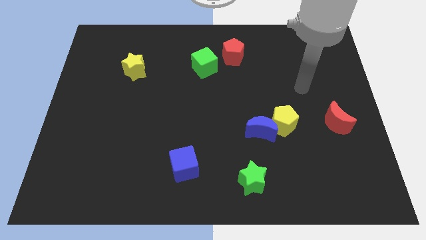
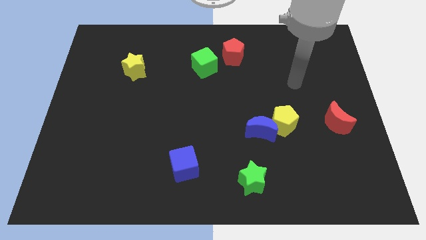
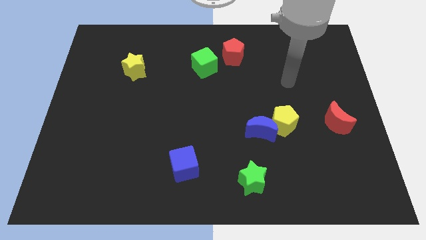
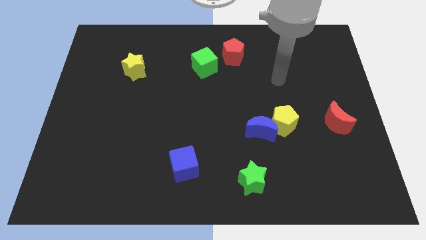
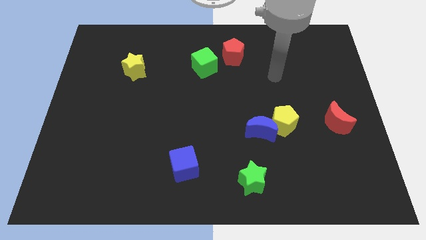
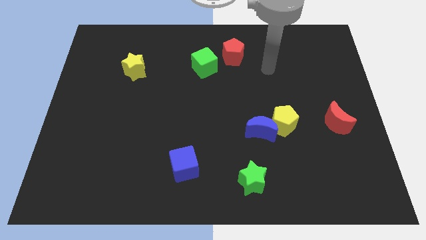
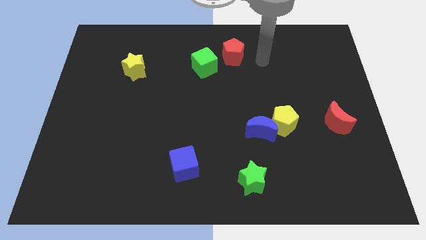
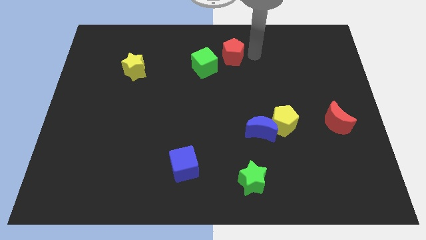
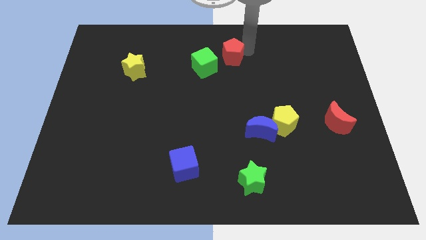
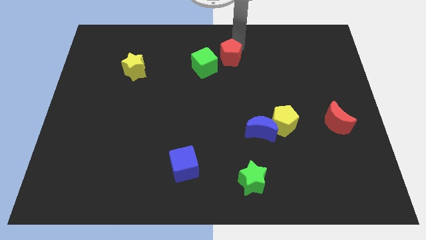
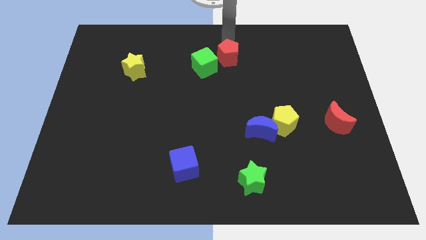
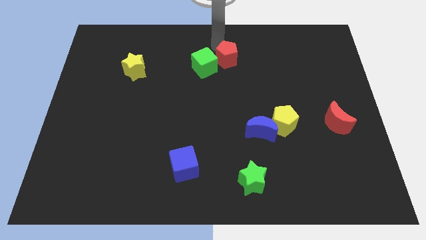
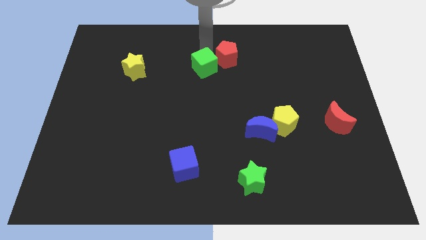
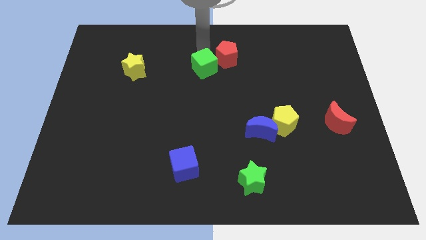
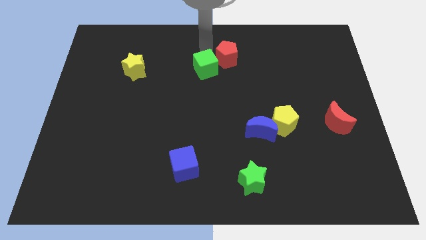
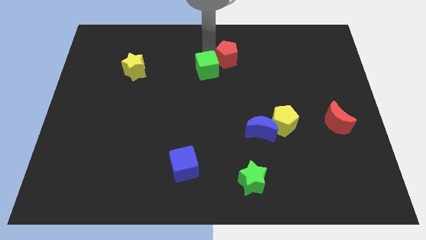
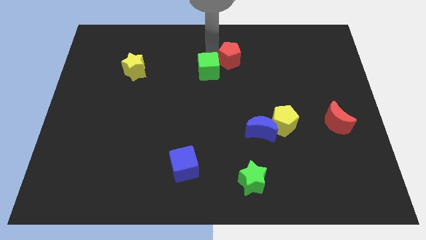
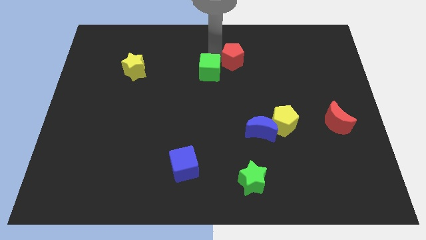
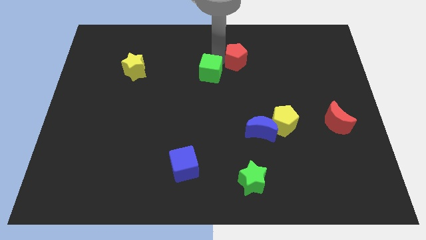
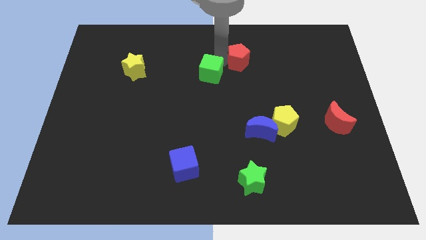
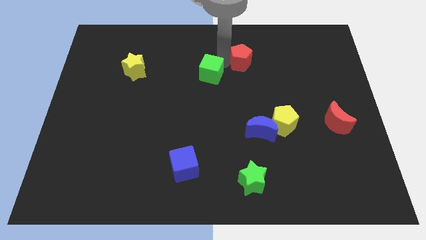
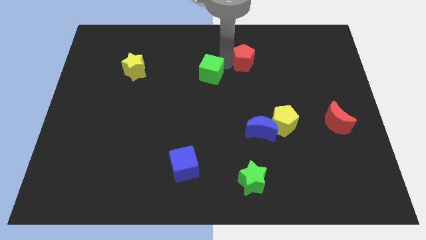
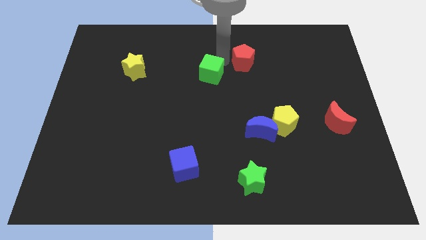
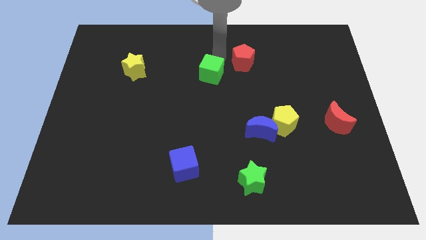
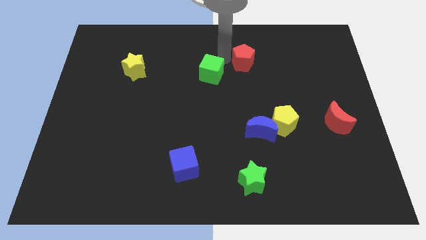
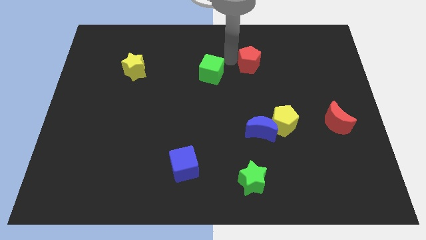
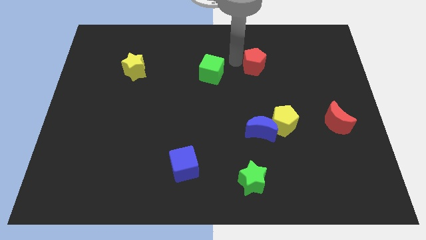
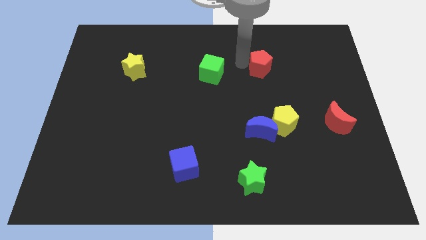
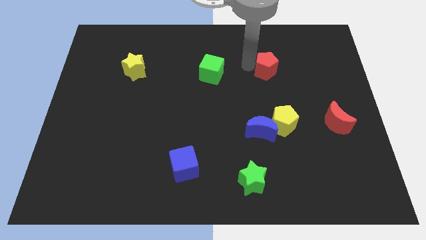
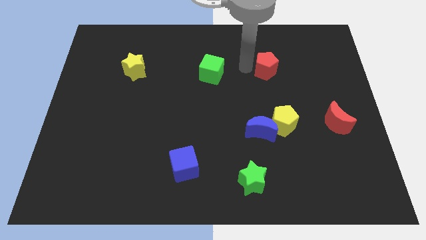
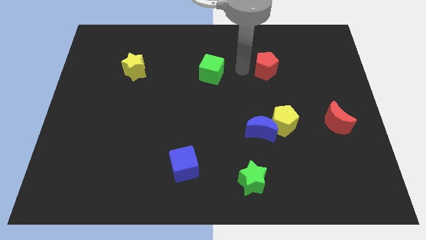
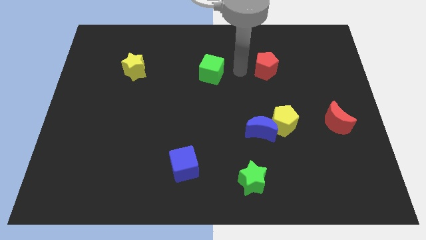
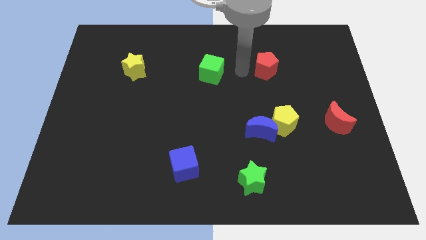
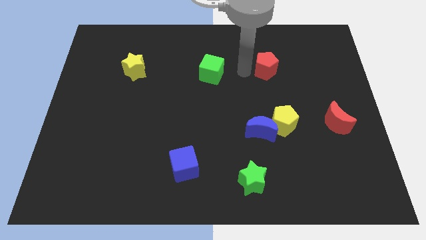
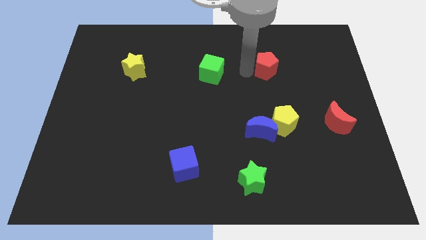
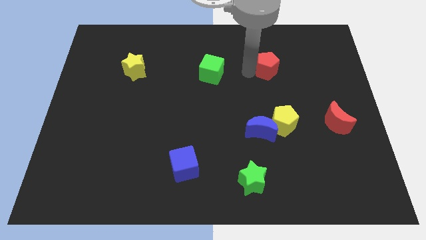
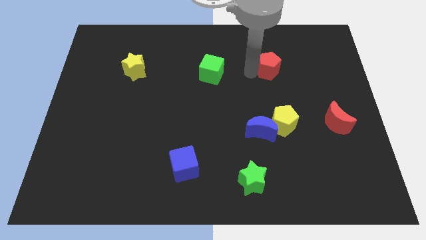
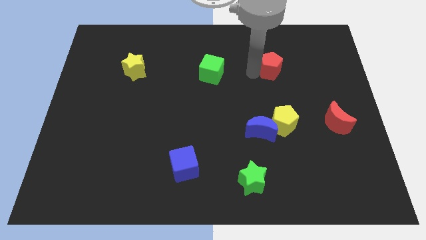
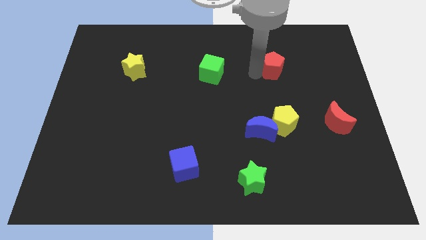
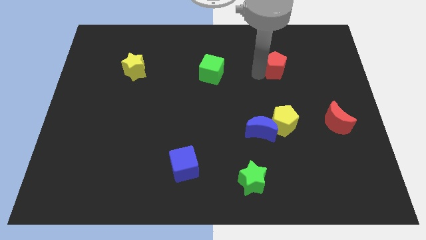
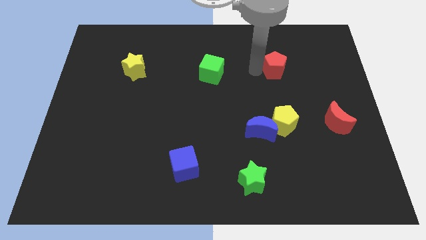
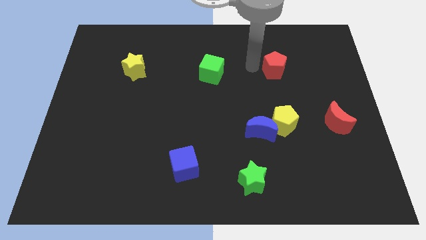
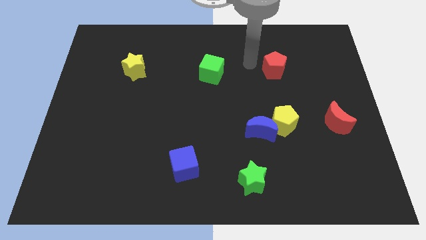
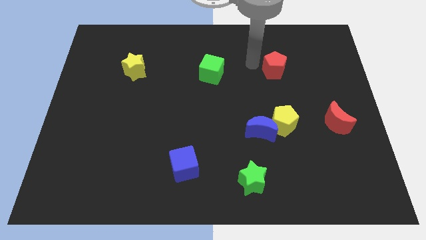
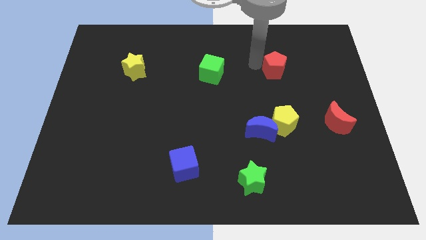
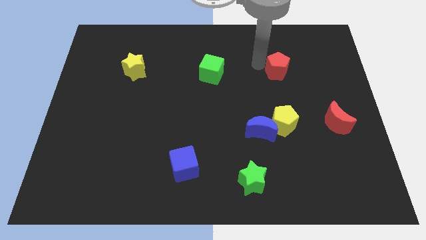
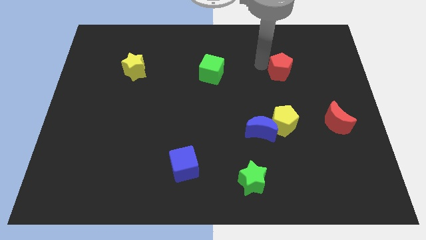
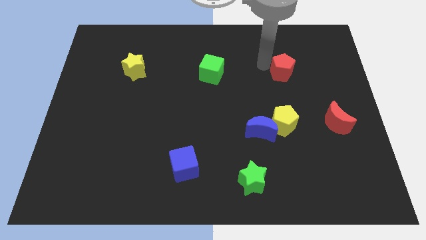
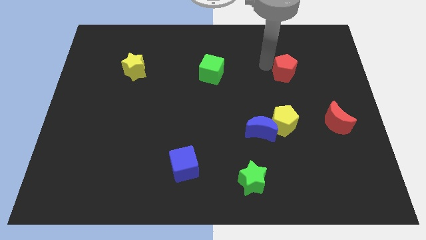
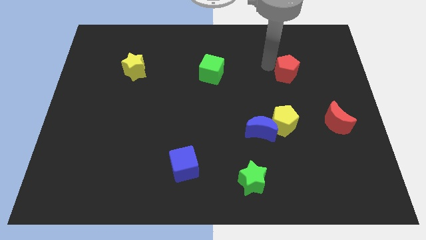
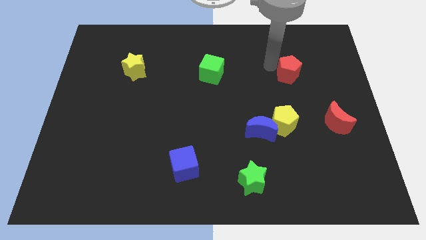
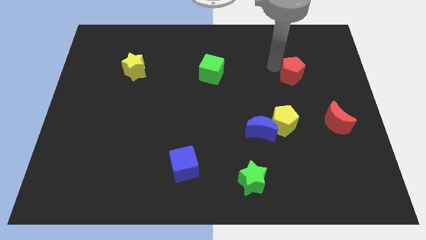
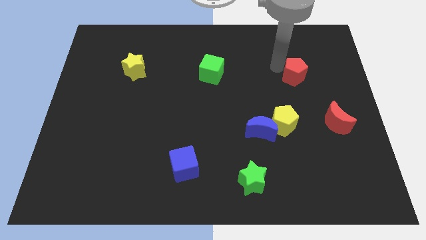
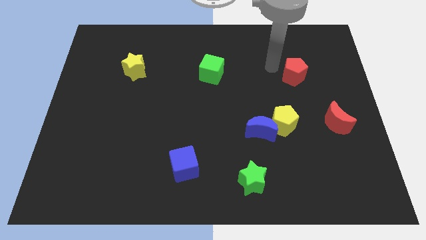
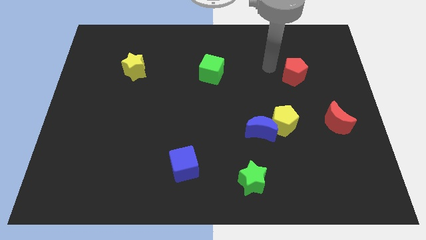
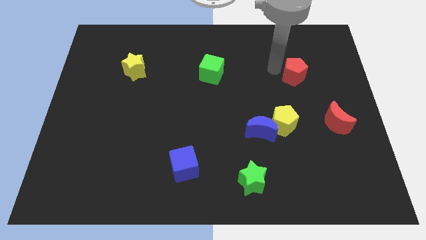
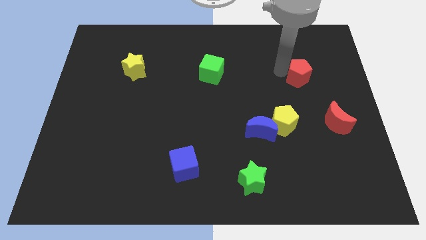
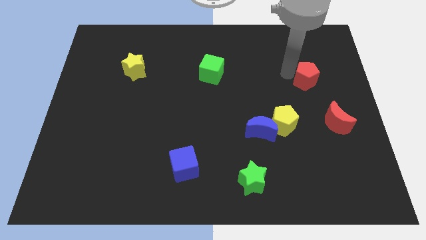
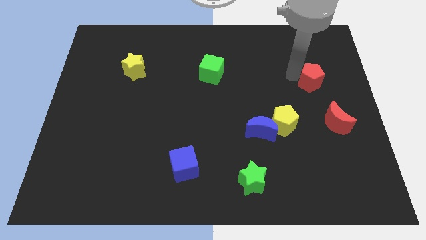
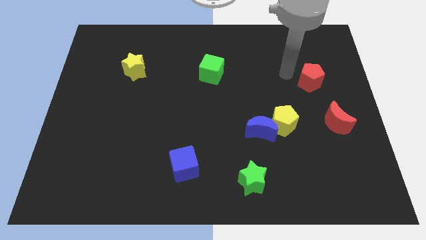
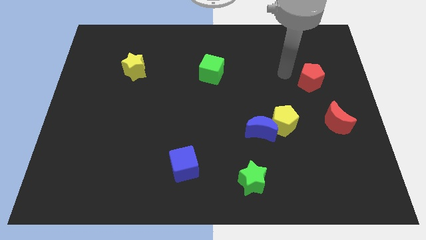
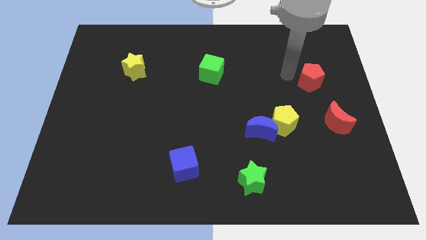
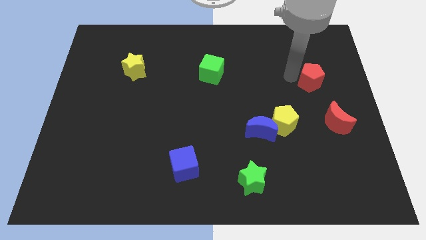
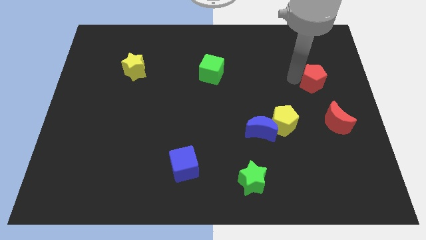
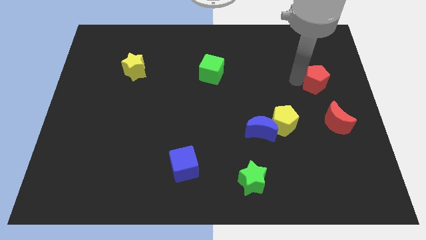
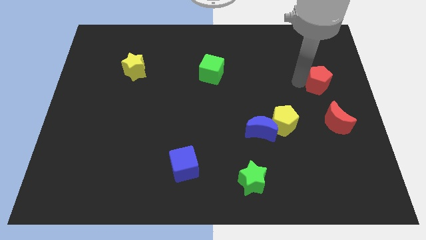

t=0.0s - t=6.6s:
put the red pentagon to the right side of the board
